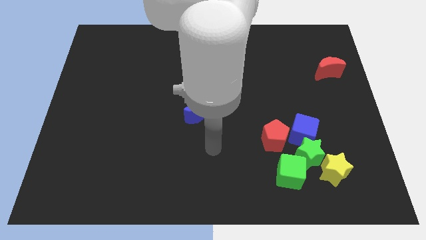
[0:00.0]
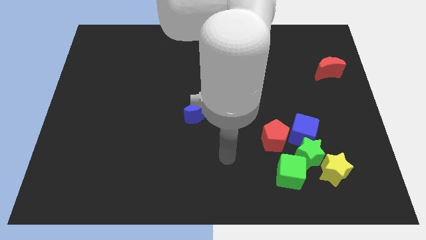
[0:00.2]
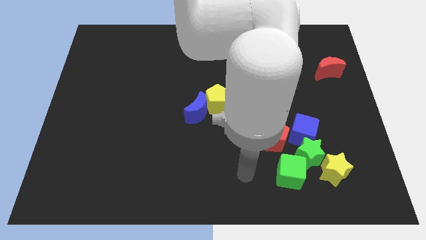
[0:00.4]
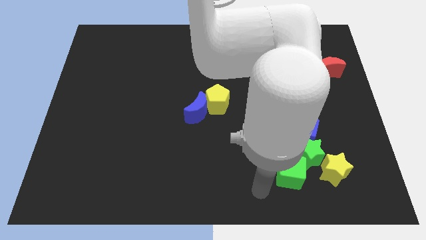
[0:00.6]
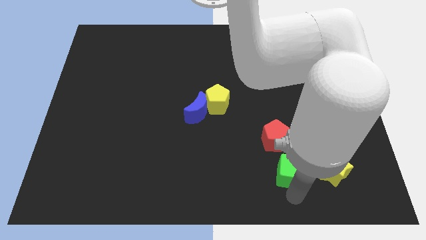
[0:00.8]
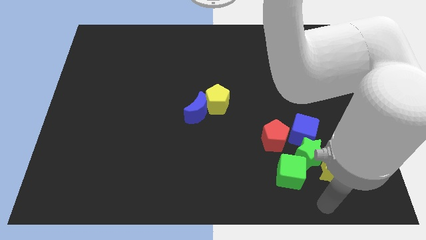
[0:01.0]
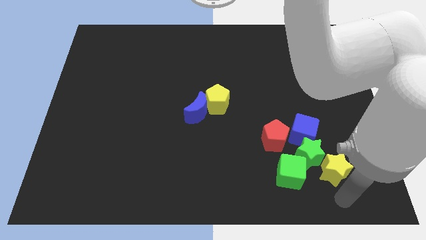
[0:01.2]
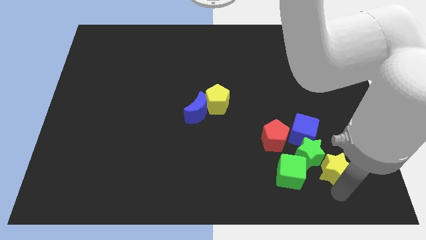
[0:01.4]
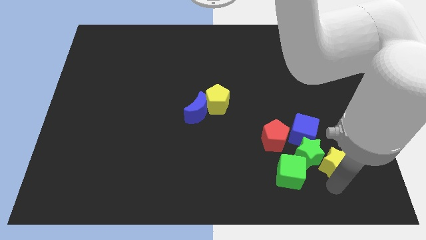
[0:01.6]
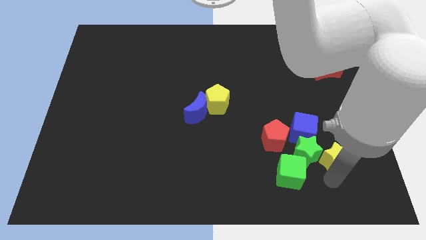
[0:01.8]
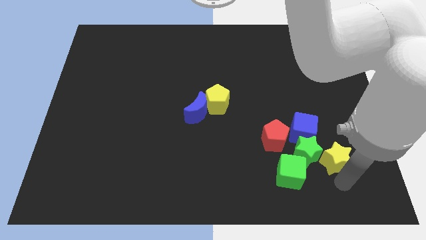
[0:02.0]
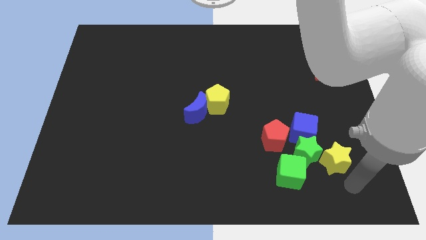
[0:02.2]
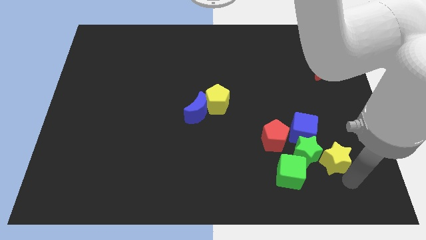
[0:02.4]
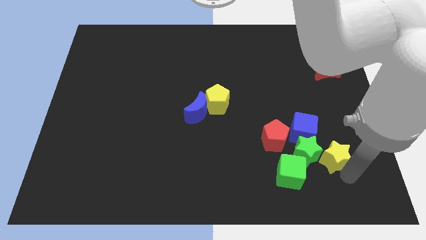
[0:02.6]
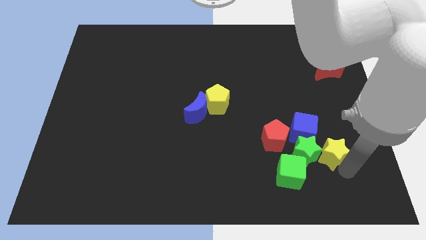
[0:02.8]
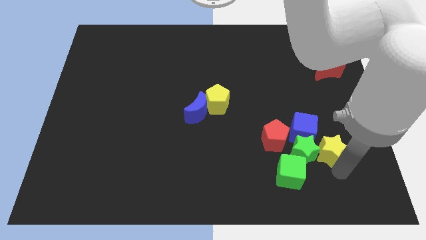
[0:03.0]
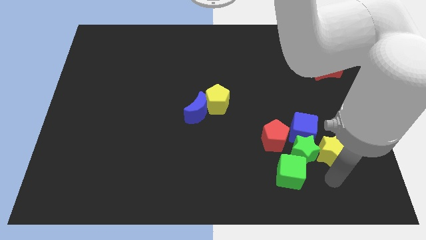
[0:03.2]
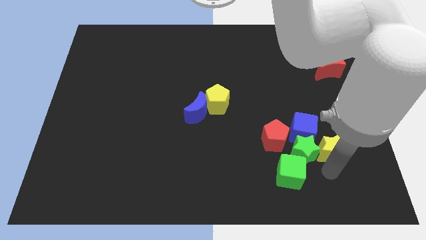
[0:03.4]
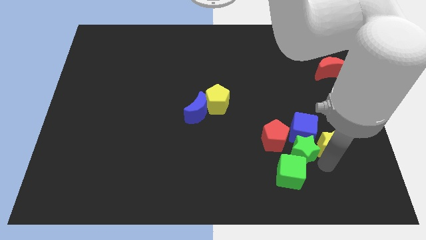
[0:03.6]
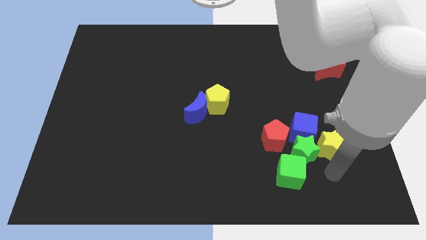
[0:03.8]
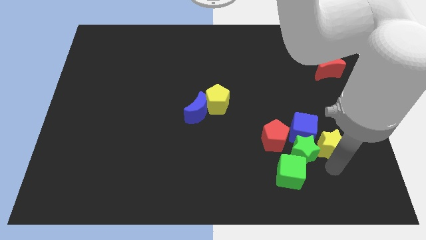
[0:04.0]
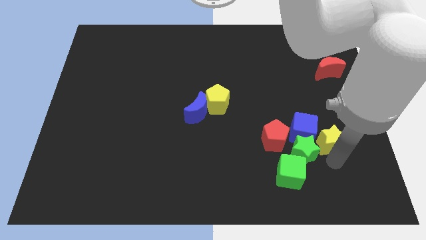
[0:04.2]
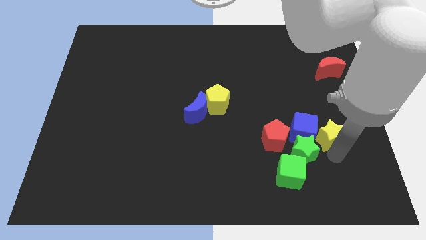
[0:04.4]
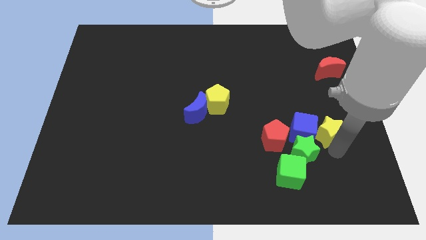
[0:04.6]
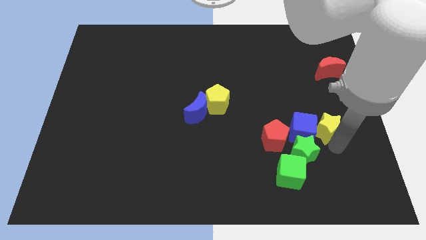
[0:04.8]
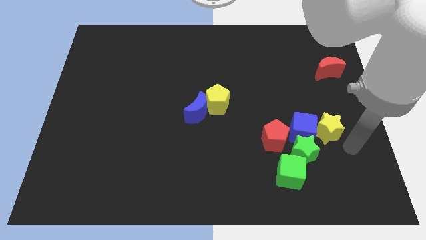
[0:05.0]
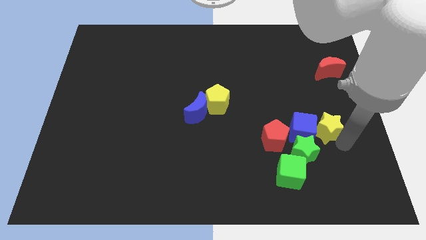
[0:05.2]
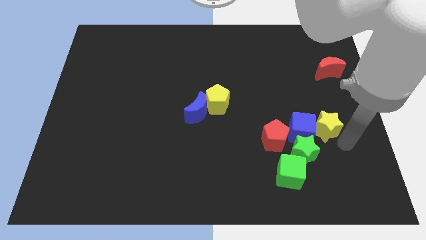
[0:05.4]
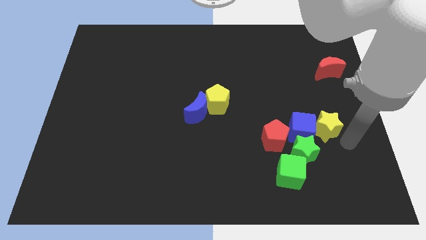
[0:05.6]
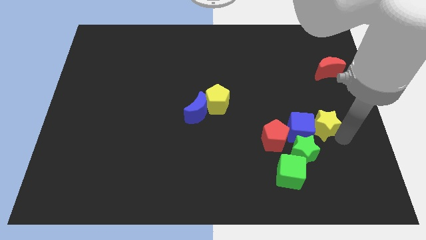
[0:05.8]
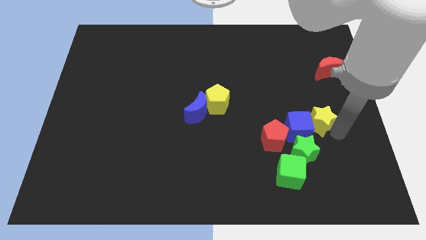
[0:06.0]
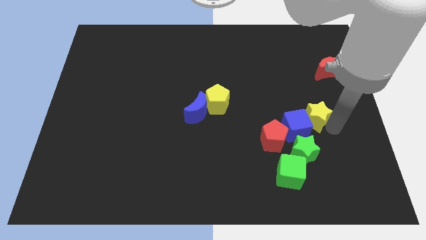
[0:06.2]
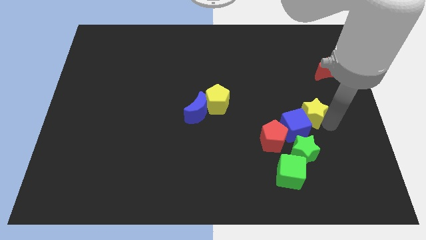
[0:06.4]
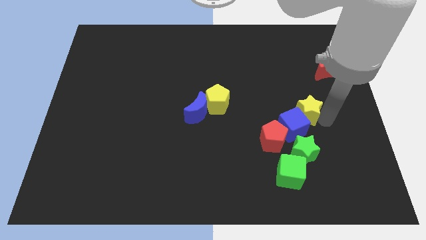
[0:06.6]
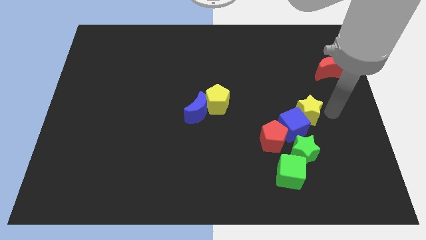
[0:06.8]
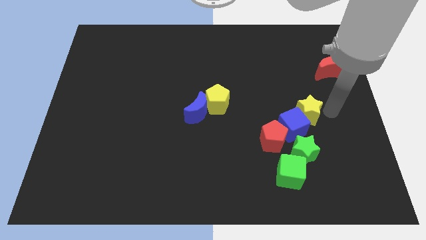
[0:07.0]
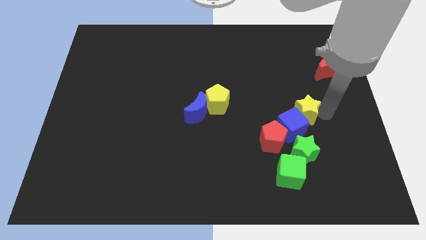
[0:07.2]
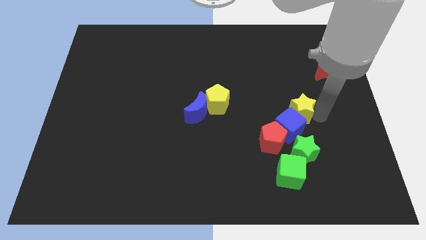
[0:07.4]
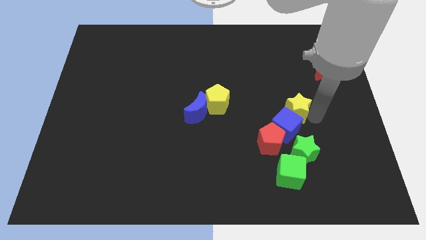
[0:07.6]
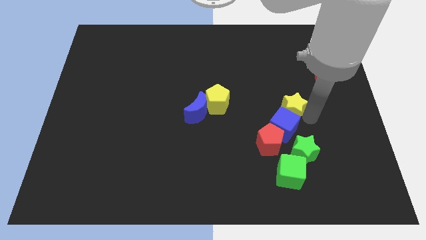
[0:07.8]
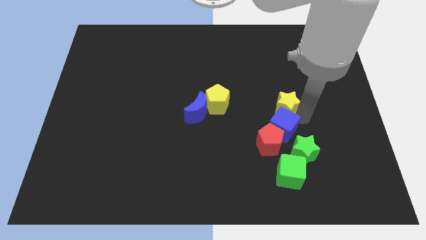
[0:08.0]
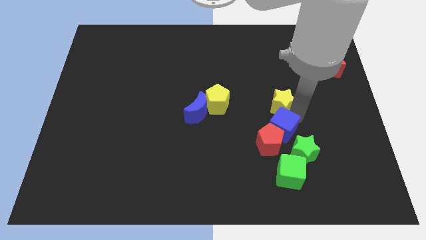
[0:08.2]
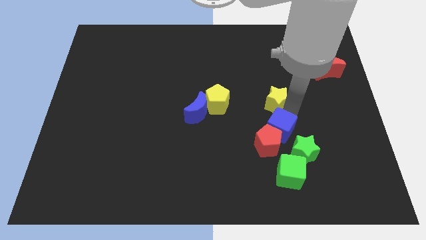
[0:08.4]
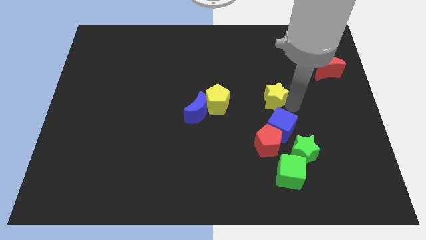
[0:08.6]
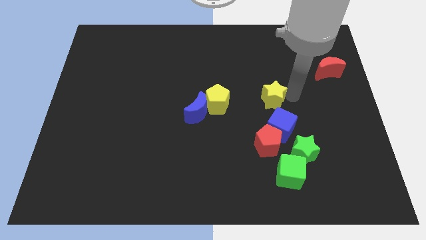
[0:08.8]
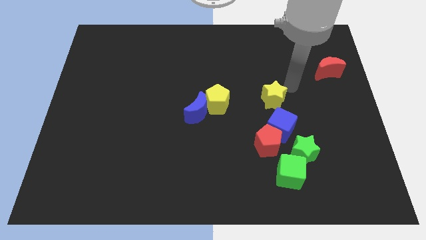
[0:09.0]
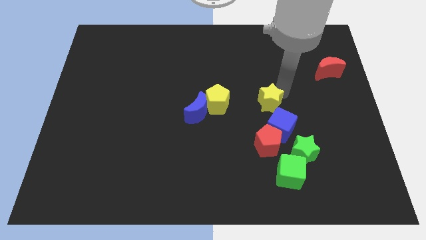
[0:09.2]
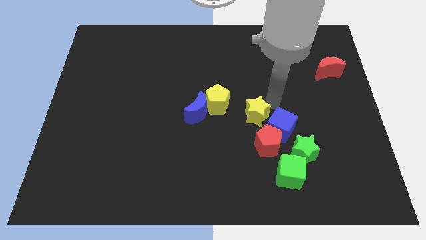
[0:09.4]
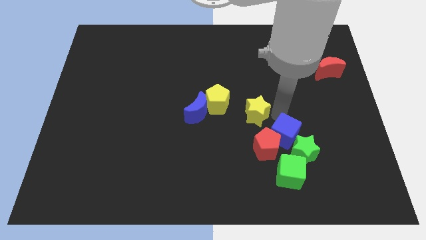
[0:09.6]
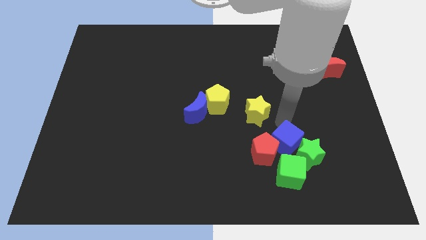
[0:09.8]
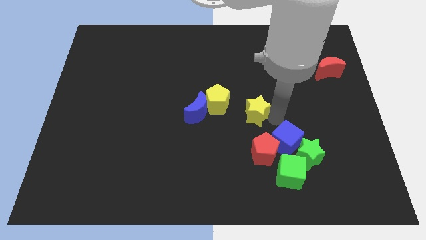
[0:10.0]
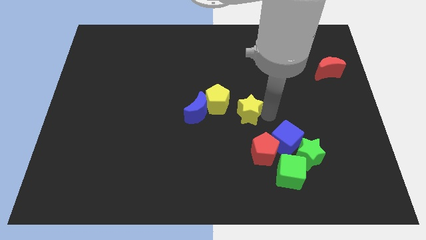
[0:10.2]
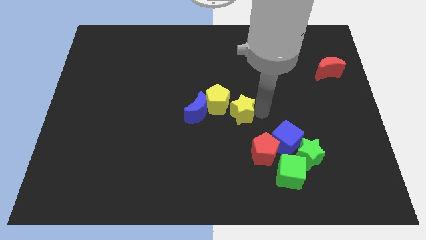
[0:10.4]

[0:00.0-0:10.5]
slide the yellow star next to the yellow pentagon

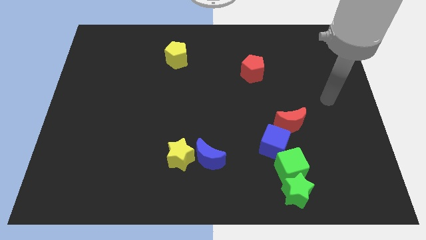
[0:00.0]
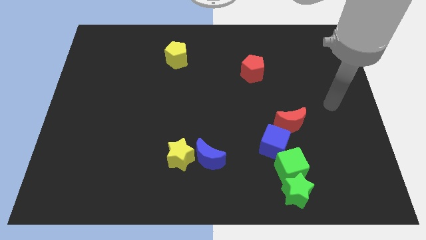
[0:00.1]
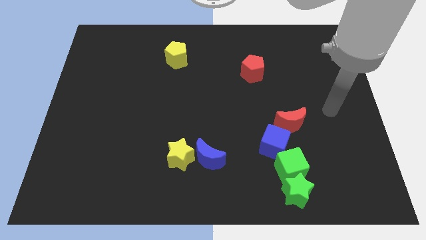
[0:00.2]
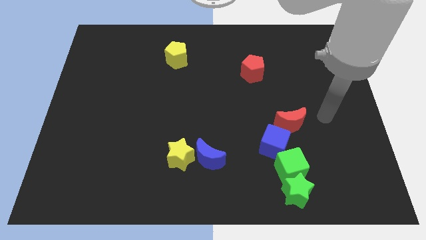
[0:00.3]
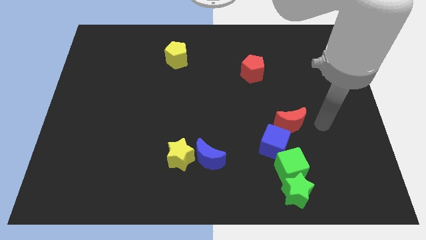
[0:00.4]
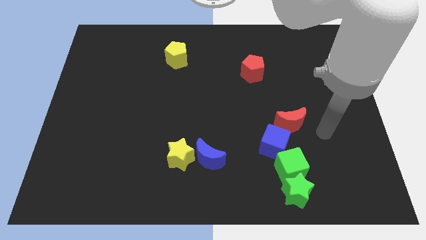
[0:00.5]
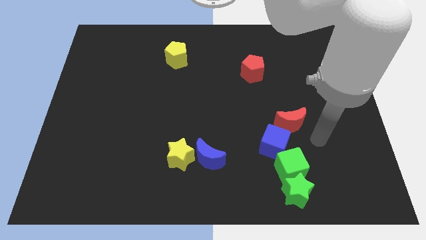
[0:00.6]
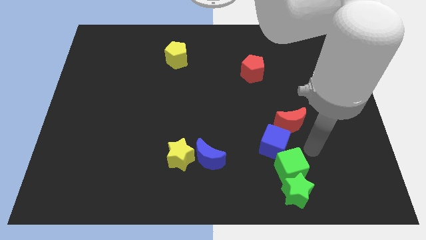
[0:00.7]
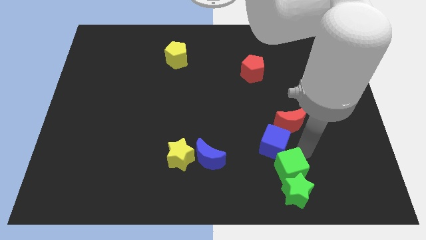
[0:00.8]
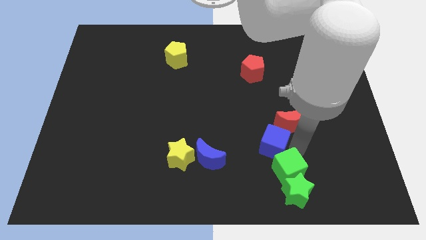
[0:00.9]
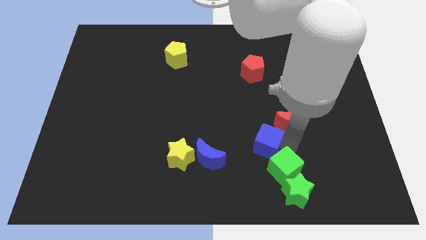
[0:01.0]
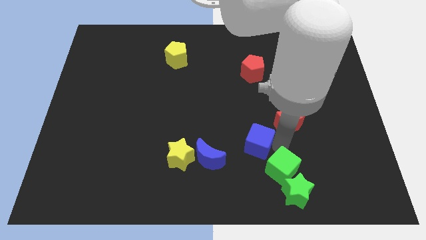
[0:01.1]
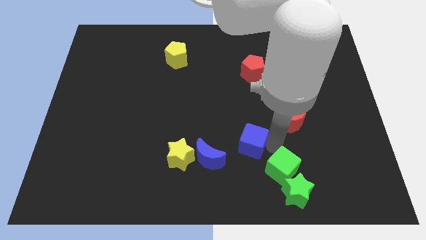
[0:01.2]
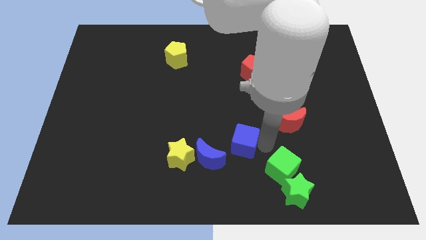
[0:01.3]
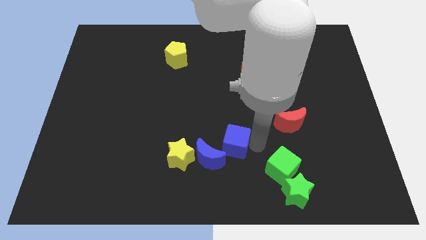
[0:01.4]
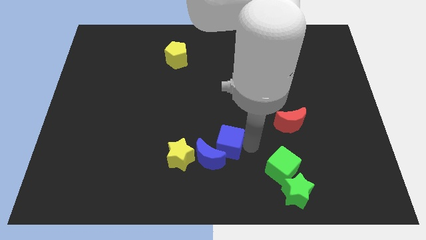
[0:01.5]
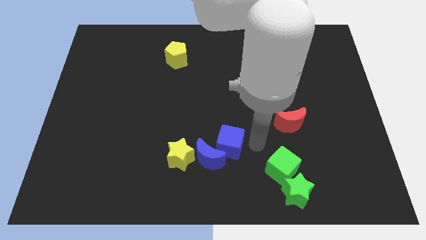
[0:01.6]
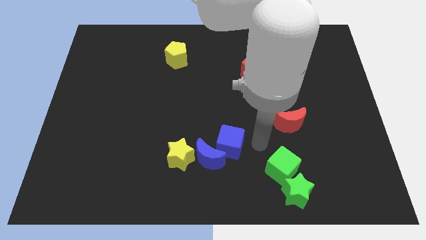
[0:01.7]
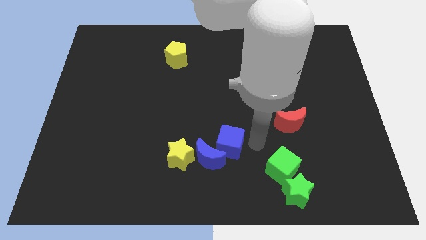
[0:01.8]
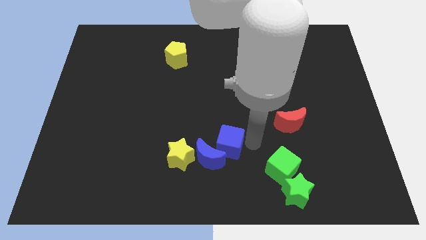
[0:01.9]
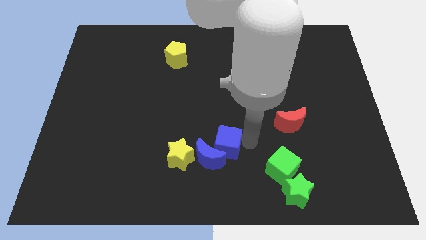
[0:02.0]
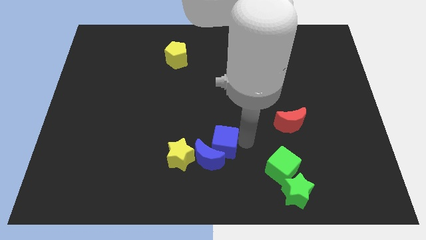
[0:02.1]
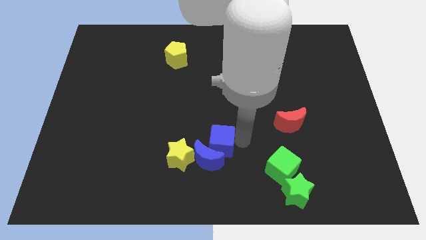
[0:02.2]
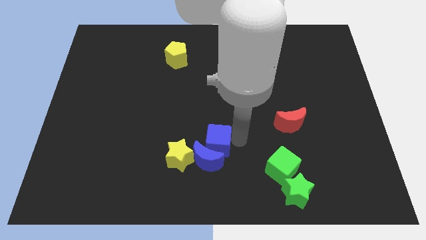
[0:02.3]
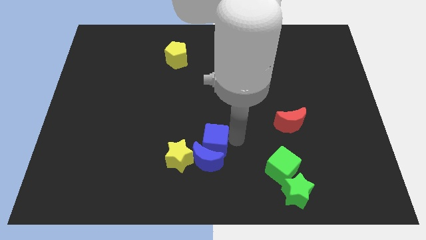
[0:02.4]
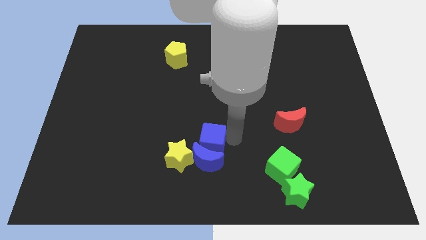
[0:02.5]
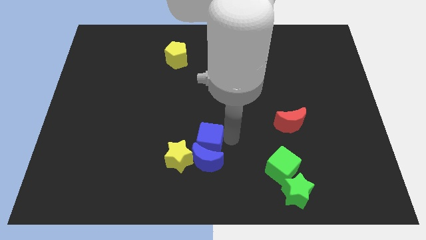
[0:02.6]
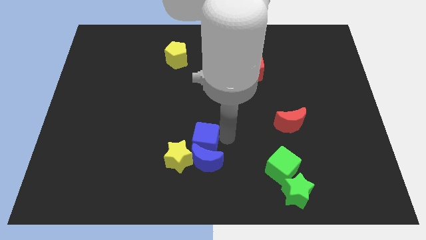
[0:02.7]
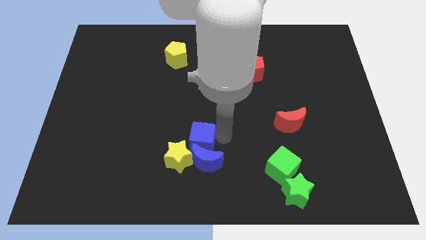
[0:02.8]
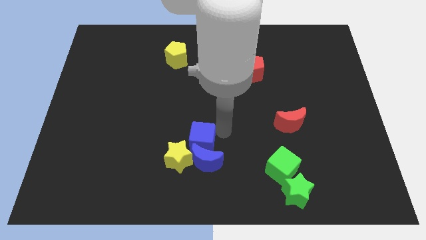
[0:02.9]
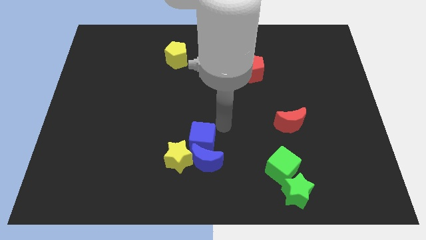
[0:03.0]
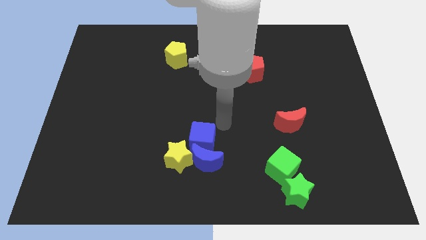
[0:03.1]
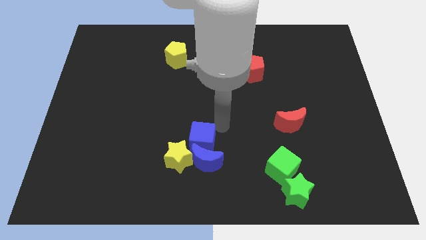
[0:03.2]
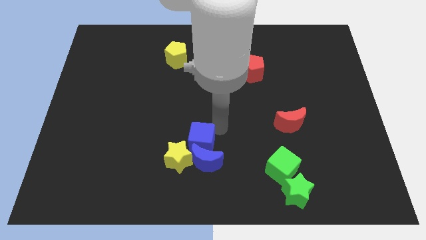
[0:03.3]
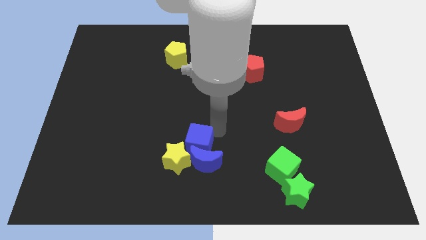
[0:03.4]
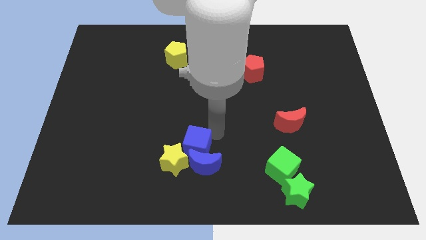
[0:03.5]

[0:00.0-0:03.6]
move the blue cube towards the yellow star
